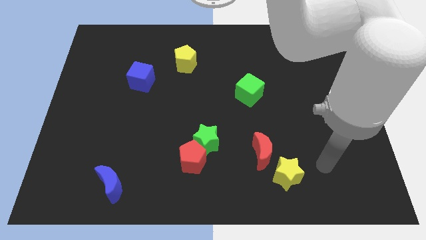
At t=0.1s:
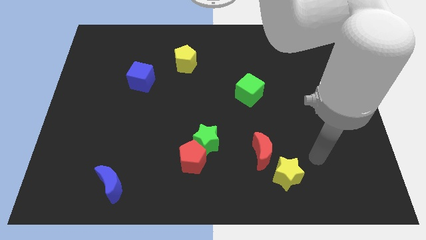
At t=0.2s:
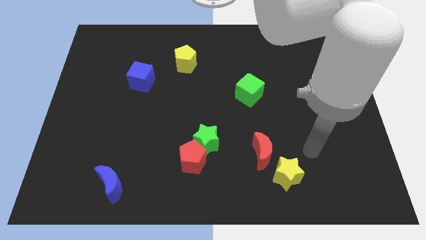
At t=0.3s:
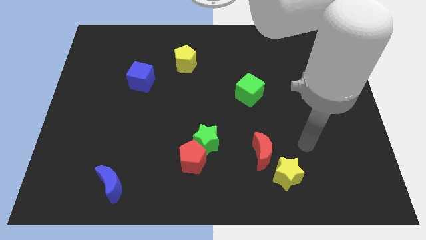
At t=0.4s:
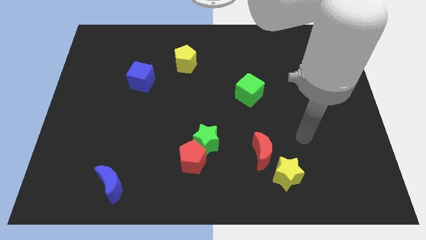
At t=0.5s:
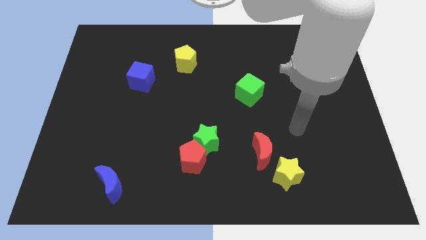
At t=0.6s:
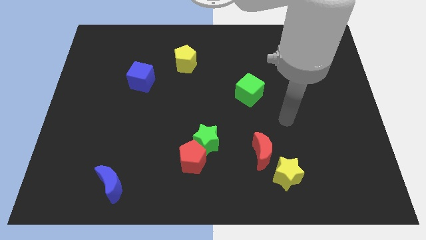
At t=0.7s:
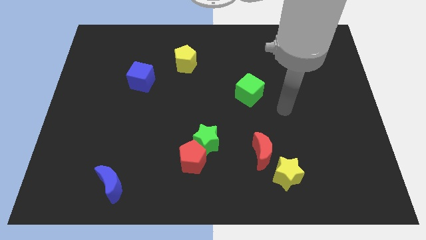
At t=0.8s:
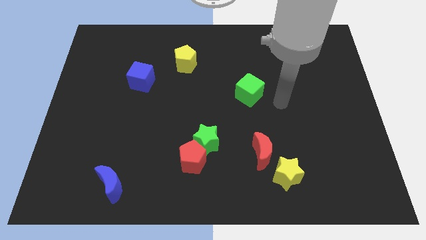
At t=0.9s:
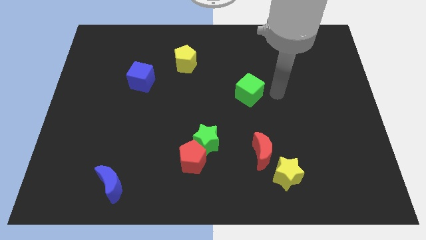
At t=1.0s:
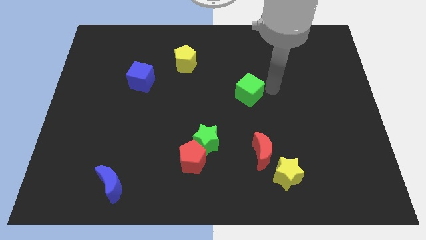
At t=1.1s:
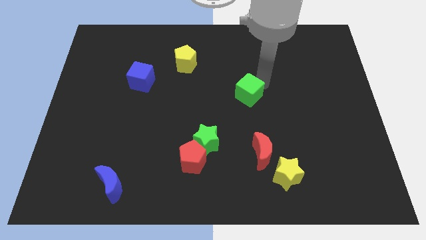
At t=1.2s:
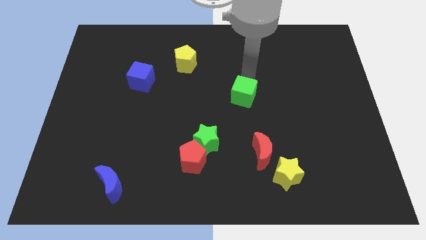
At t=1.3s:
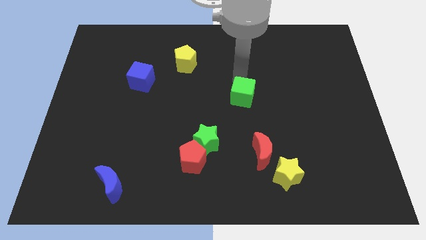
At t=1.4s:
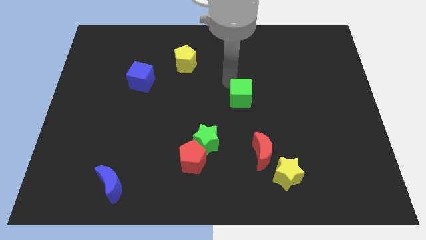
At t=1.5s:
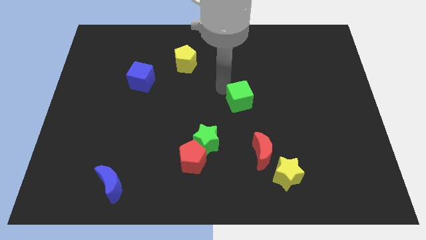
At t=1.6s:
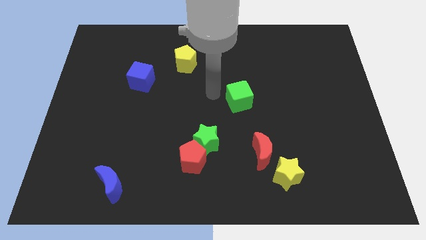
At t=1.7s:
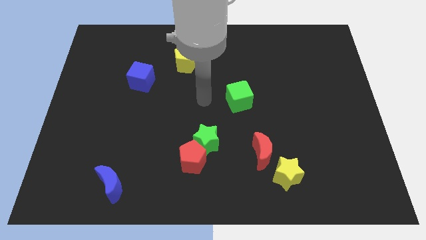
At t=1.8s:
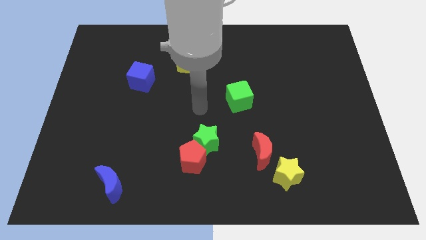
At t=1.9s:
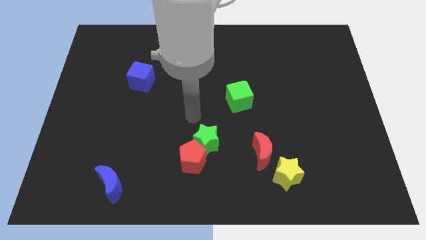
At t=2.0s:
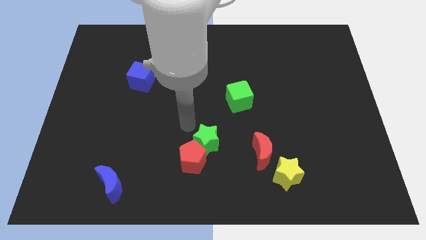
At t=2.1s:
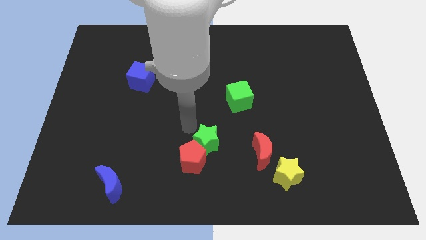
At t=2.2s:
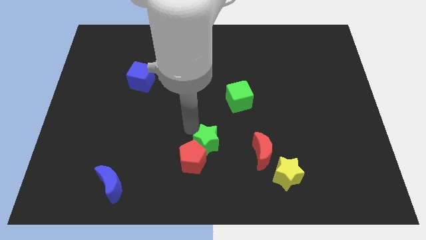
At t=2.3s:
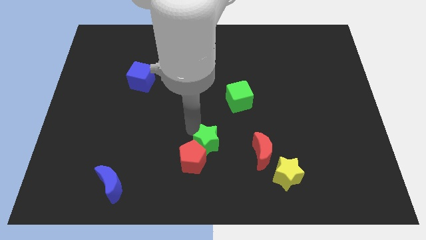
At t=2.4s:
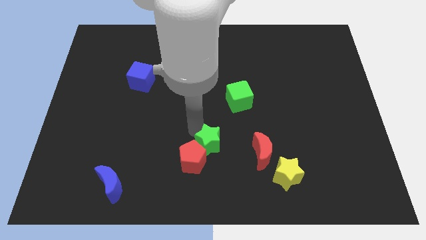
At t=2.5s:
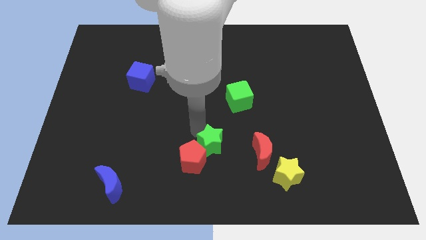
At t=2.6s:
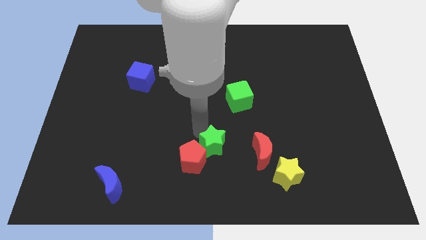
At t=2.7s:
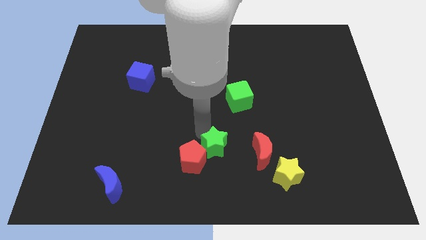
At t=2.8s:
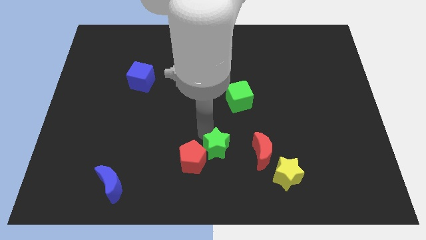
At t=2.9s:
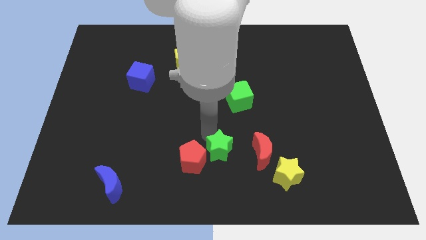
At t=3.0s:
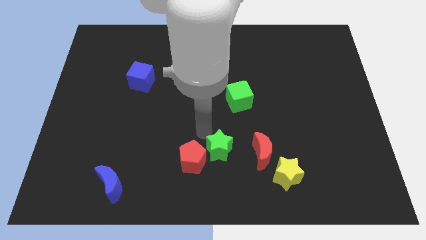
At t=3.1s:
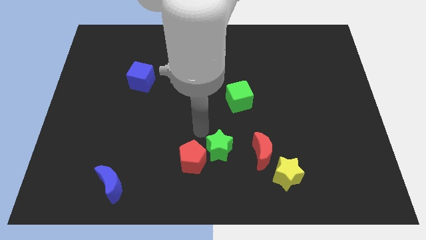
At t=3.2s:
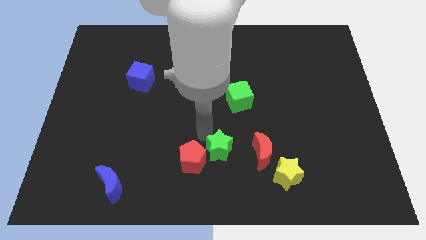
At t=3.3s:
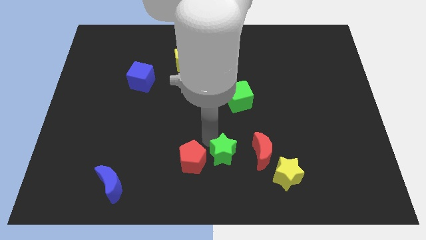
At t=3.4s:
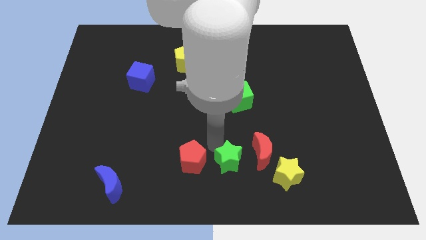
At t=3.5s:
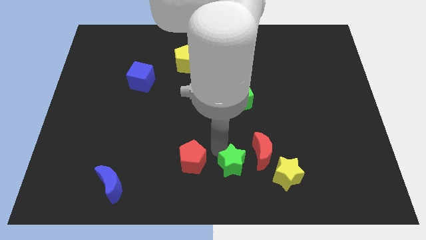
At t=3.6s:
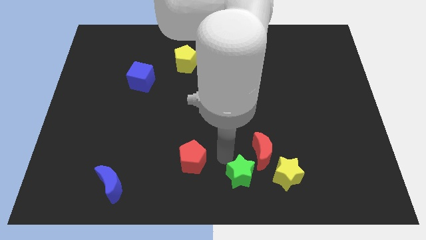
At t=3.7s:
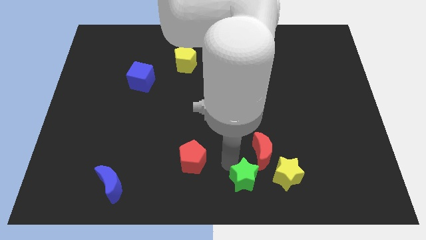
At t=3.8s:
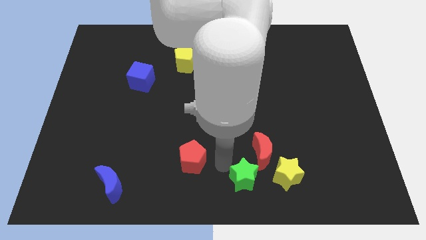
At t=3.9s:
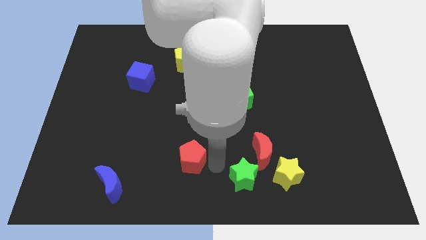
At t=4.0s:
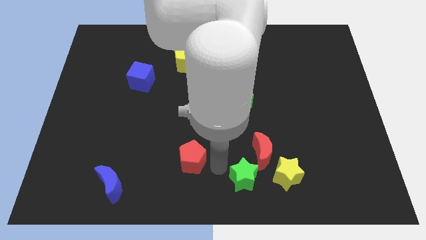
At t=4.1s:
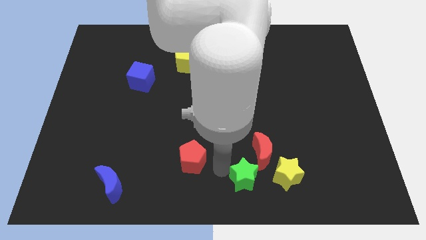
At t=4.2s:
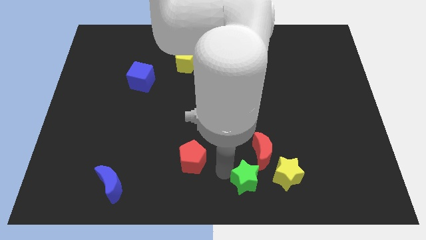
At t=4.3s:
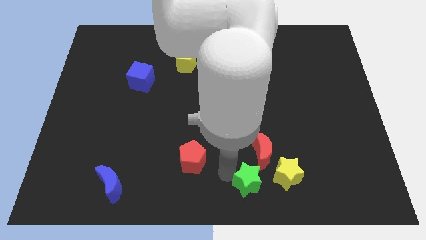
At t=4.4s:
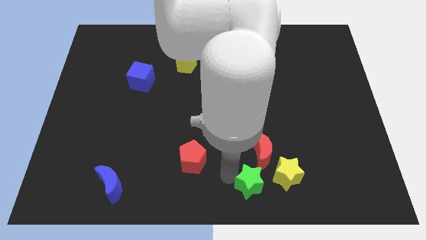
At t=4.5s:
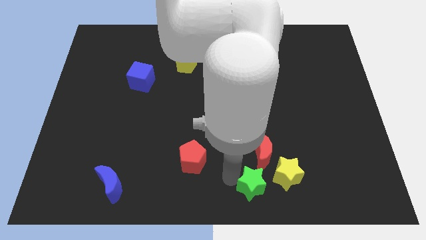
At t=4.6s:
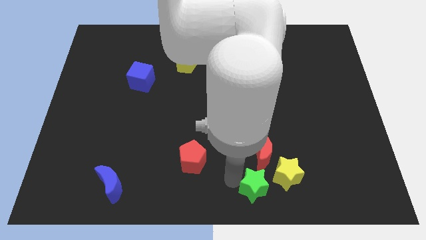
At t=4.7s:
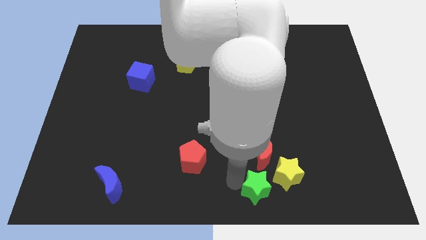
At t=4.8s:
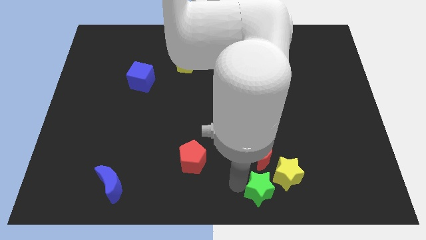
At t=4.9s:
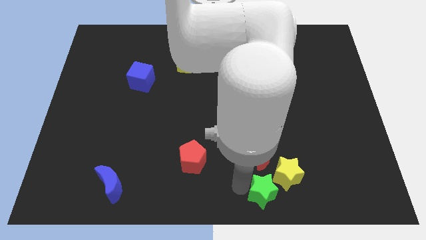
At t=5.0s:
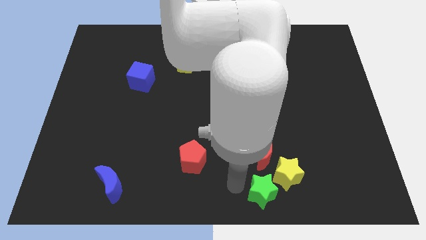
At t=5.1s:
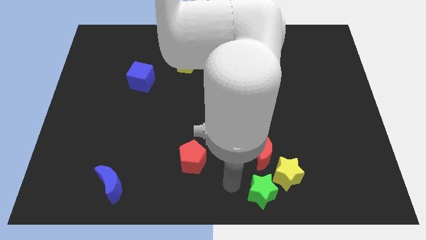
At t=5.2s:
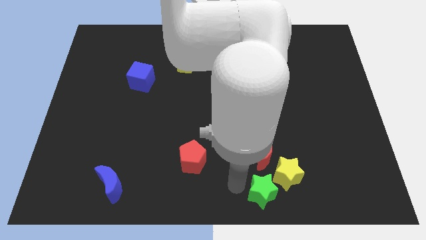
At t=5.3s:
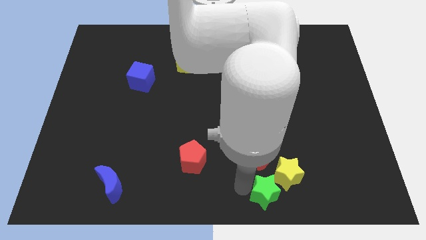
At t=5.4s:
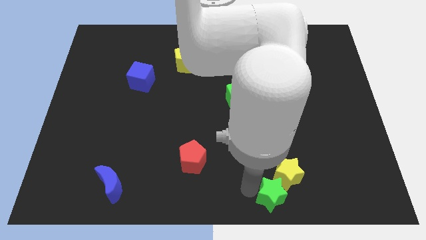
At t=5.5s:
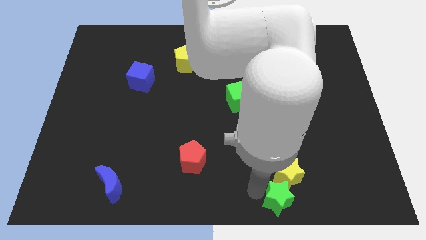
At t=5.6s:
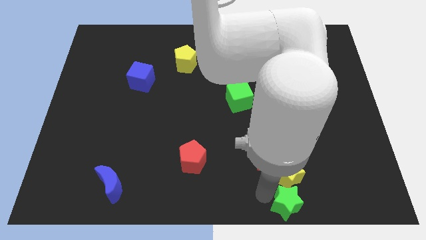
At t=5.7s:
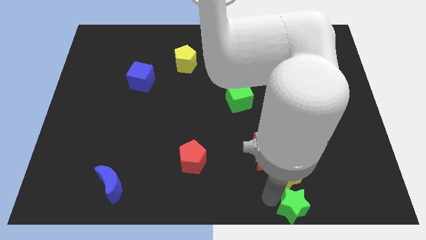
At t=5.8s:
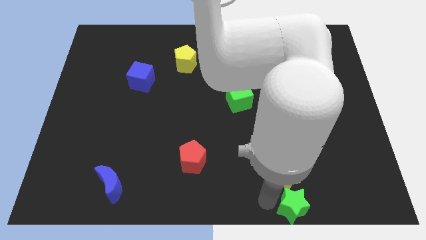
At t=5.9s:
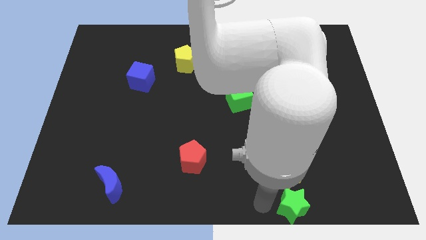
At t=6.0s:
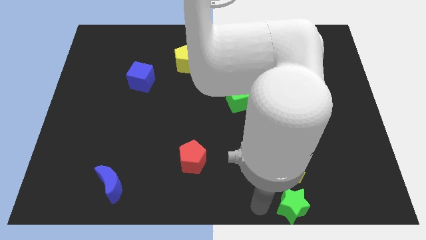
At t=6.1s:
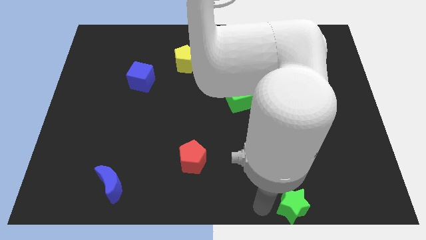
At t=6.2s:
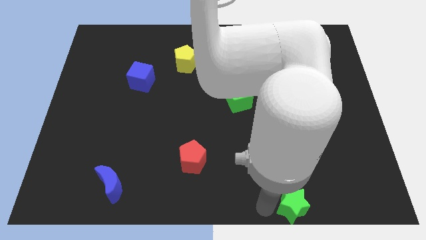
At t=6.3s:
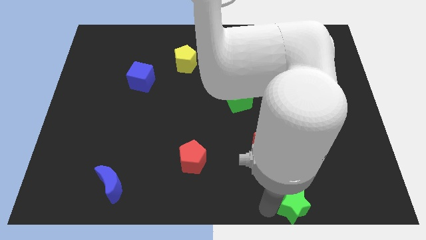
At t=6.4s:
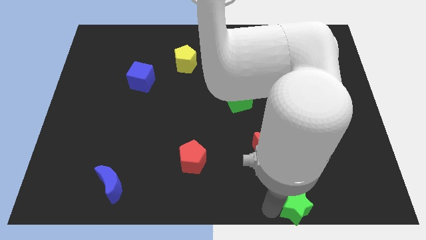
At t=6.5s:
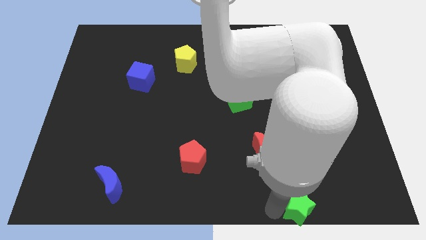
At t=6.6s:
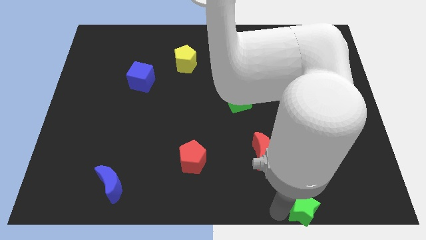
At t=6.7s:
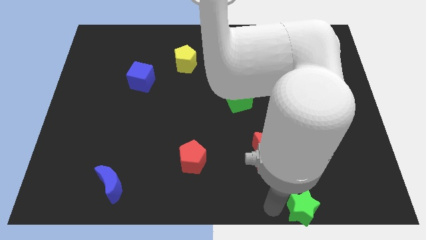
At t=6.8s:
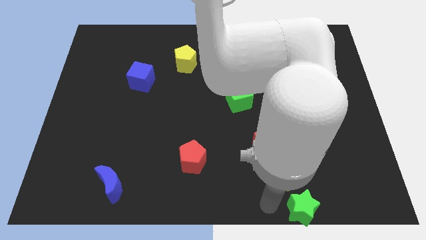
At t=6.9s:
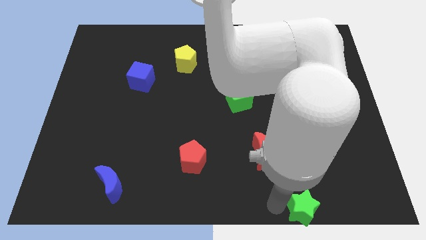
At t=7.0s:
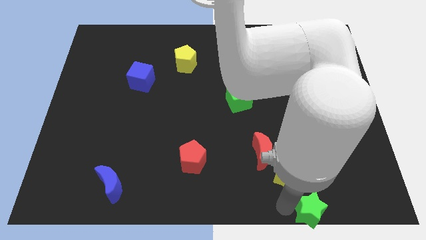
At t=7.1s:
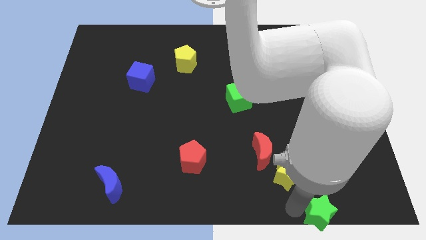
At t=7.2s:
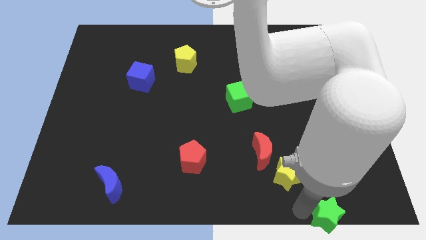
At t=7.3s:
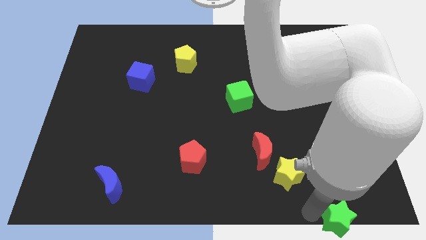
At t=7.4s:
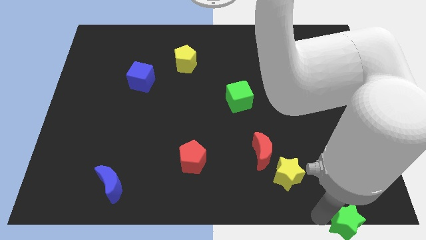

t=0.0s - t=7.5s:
put the green star to the bottom right

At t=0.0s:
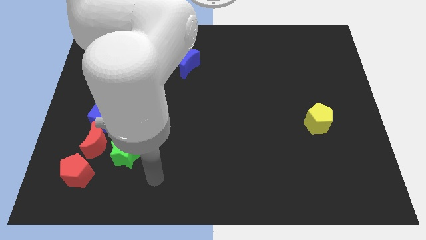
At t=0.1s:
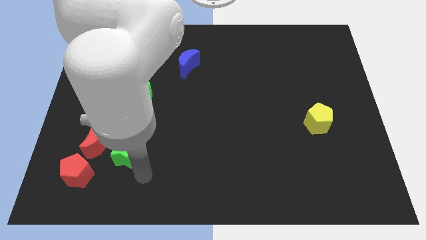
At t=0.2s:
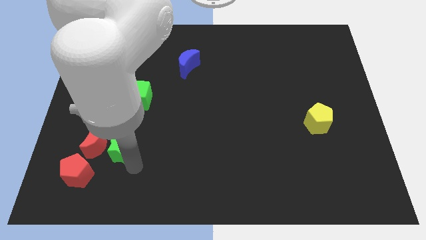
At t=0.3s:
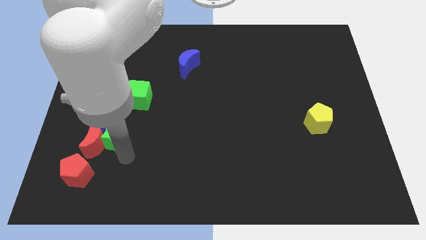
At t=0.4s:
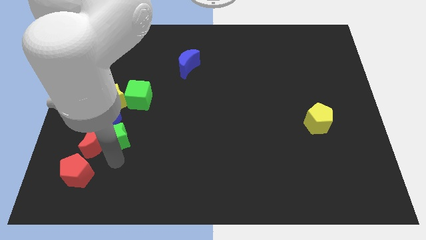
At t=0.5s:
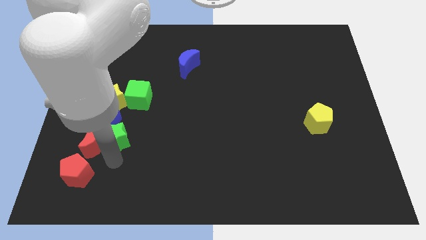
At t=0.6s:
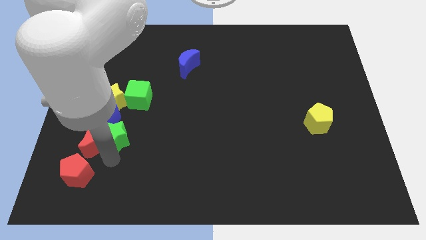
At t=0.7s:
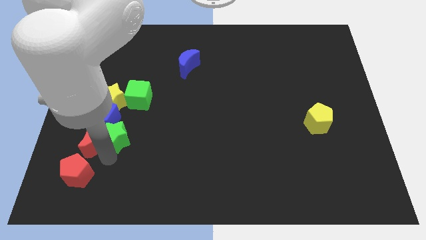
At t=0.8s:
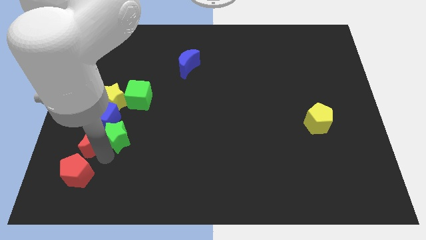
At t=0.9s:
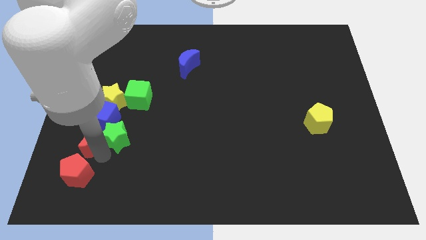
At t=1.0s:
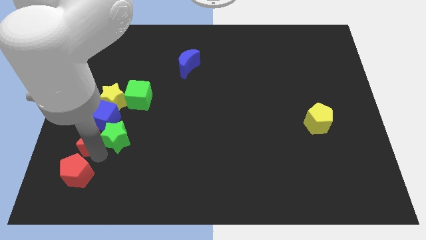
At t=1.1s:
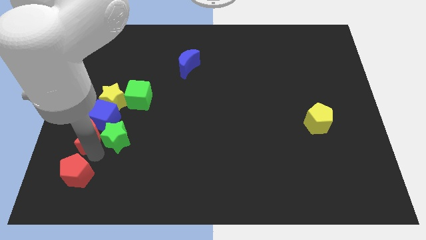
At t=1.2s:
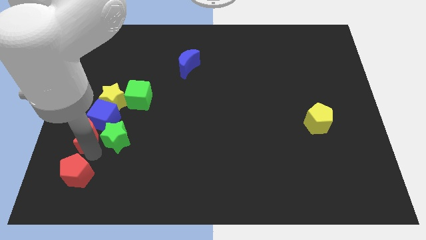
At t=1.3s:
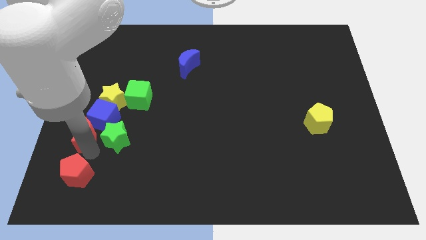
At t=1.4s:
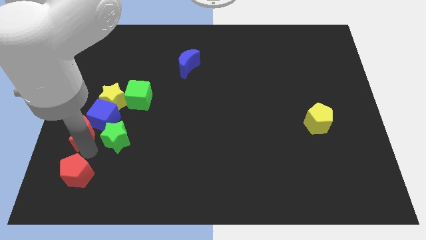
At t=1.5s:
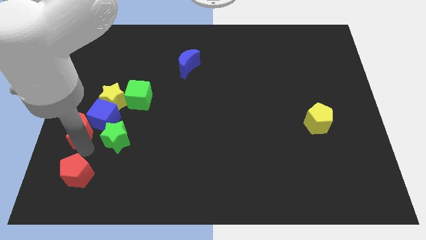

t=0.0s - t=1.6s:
push the red moon to the center left
